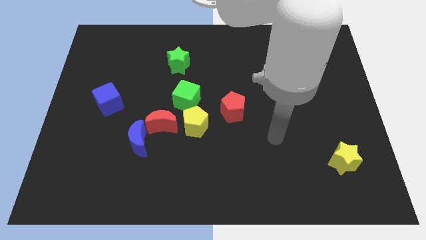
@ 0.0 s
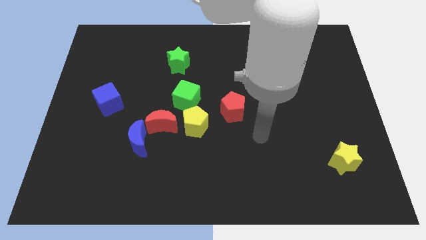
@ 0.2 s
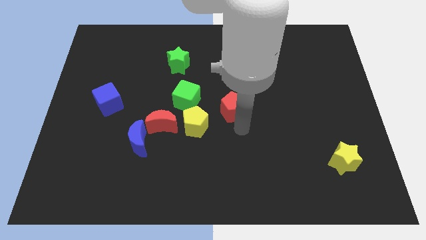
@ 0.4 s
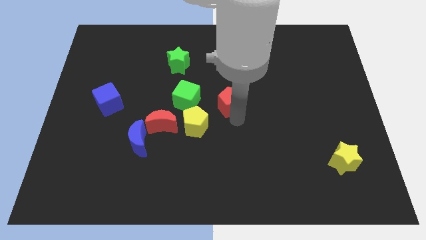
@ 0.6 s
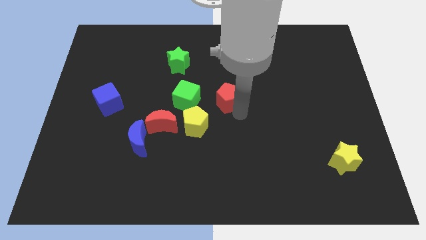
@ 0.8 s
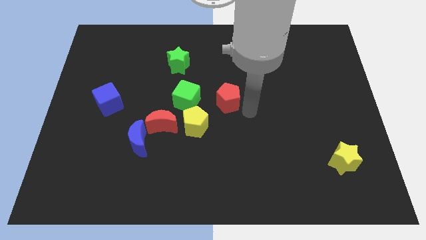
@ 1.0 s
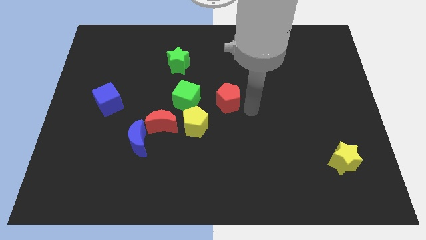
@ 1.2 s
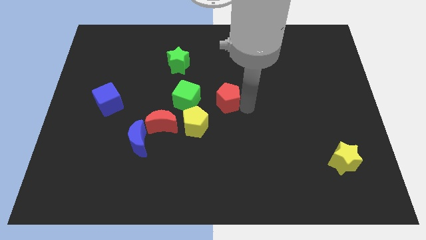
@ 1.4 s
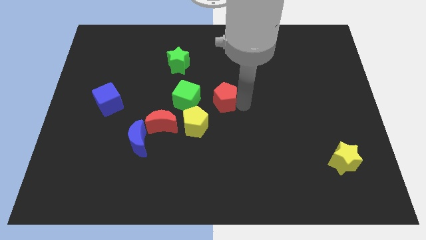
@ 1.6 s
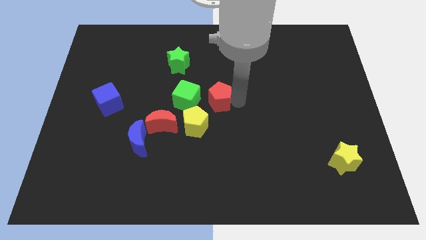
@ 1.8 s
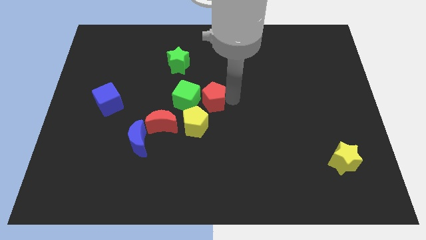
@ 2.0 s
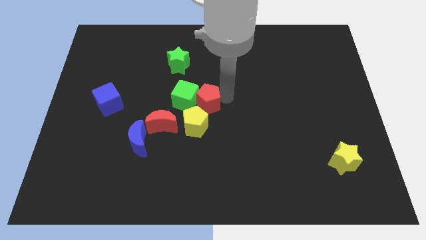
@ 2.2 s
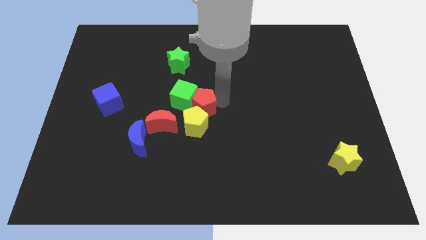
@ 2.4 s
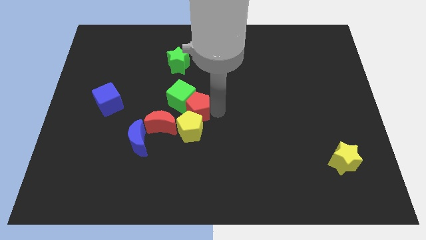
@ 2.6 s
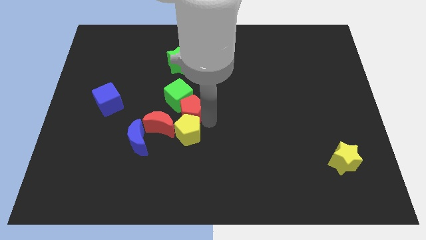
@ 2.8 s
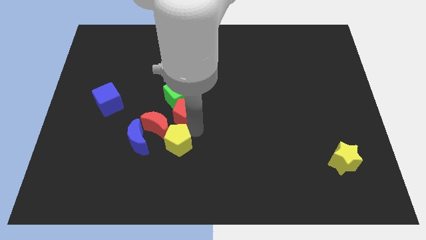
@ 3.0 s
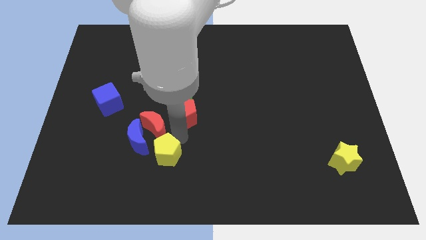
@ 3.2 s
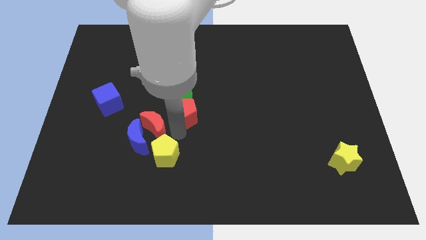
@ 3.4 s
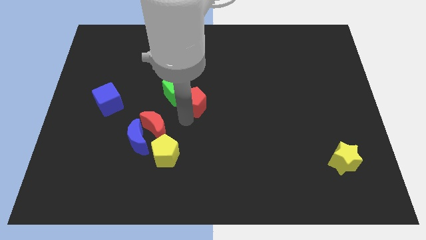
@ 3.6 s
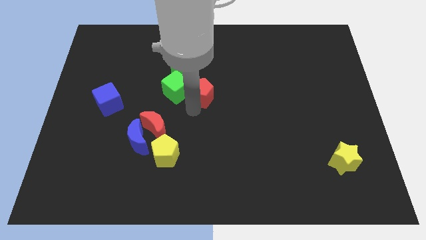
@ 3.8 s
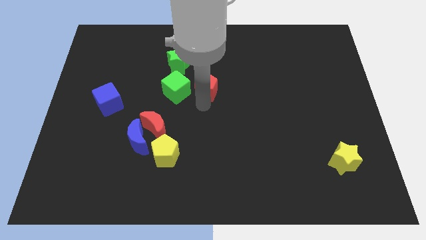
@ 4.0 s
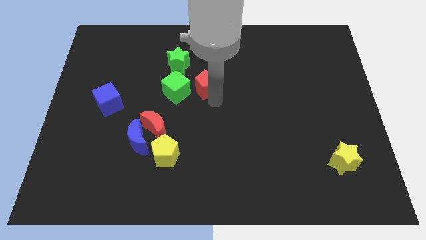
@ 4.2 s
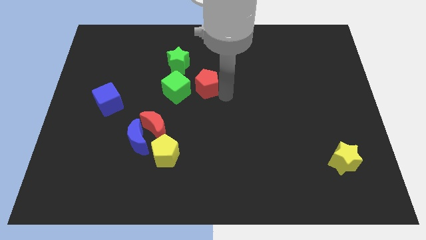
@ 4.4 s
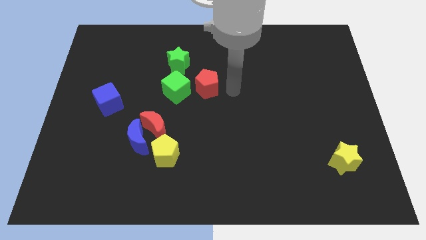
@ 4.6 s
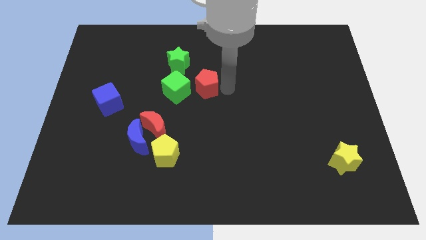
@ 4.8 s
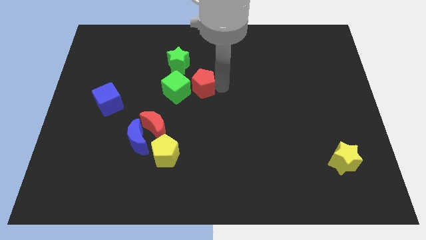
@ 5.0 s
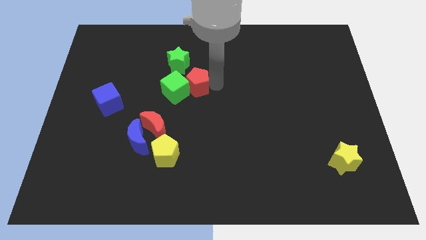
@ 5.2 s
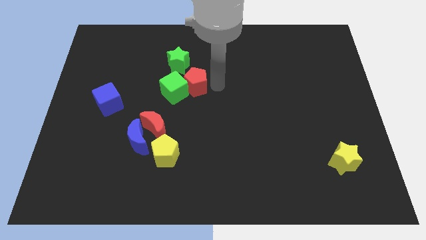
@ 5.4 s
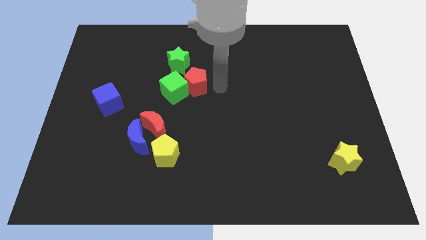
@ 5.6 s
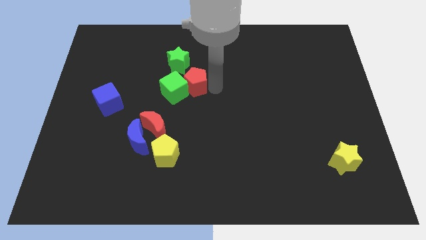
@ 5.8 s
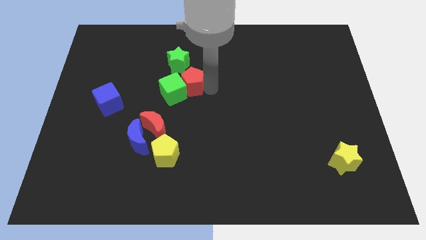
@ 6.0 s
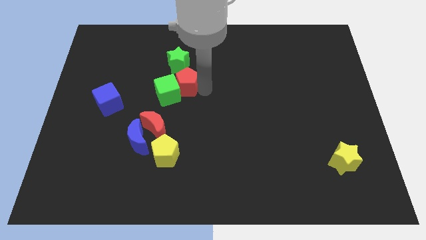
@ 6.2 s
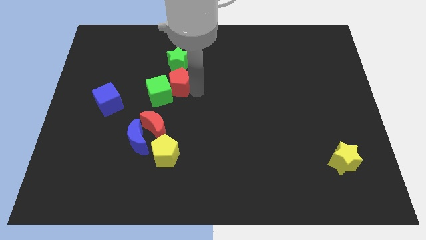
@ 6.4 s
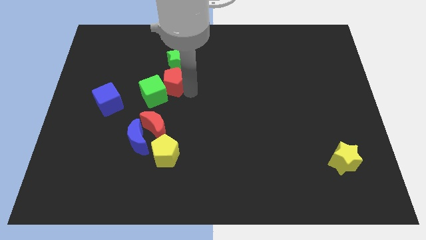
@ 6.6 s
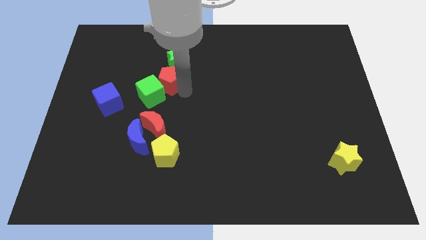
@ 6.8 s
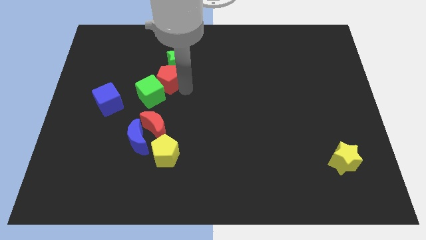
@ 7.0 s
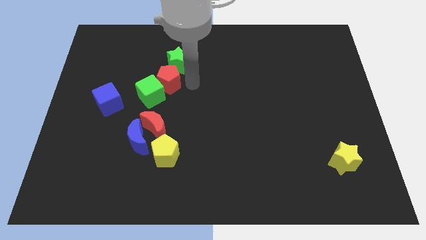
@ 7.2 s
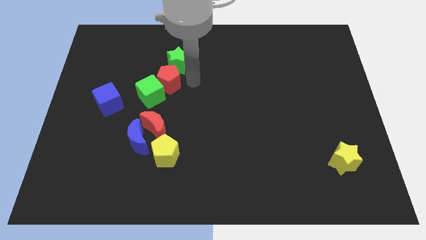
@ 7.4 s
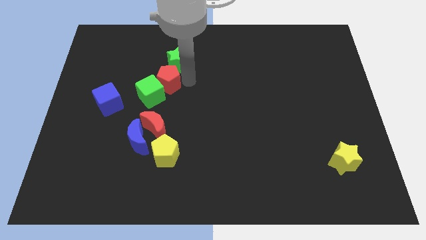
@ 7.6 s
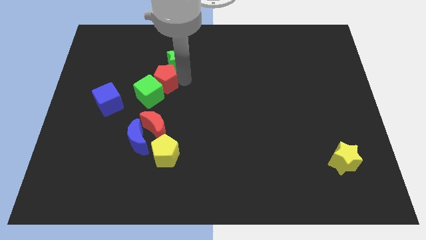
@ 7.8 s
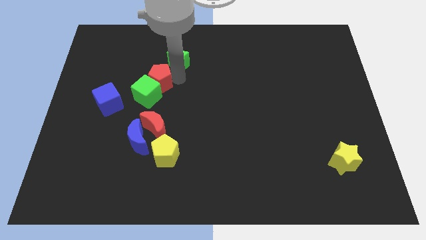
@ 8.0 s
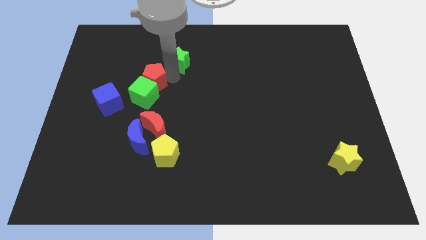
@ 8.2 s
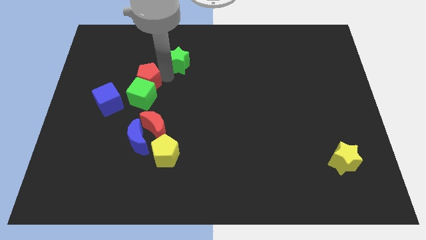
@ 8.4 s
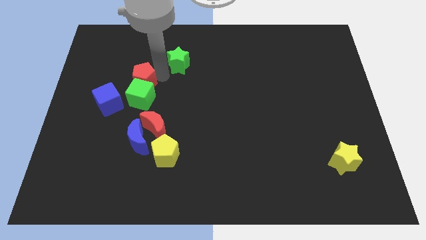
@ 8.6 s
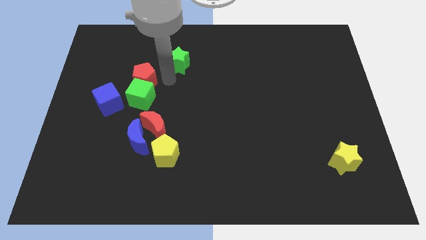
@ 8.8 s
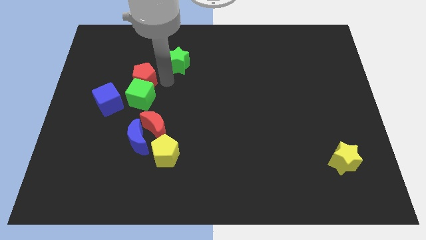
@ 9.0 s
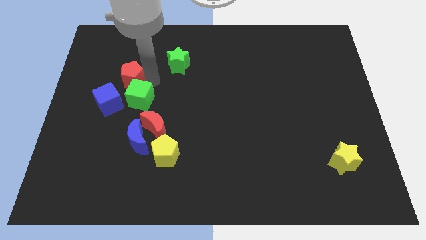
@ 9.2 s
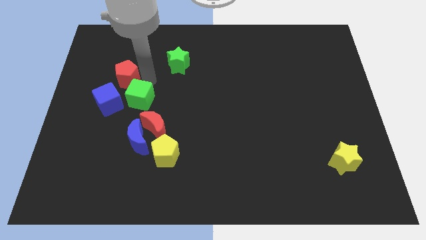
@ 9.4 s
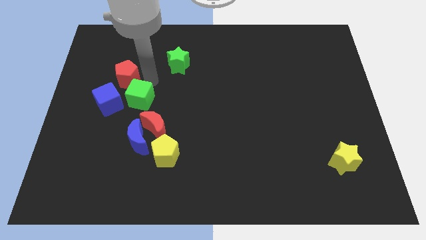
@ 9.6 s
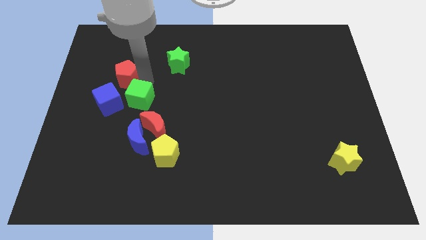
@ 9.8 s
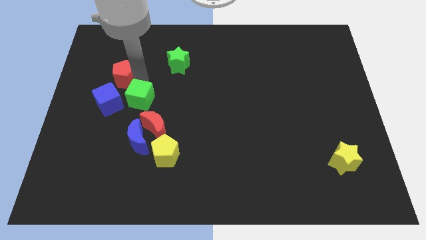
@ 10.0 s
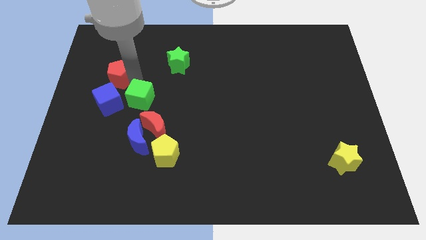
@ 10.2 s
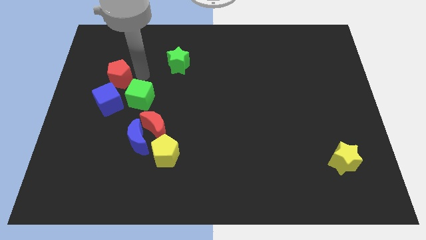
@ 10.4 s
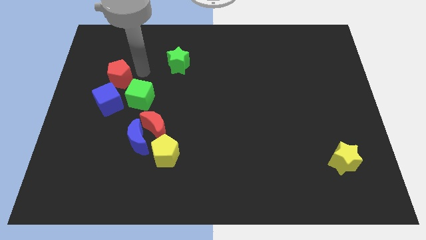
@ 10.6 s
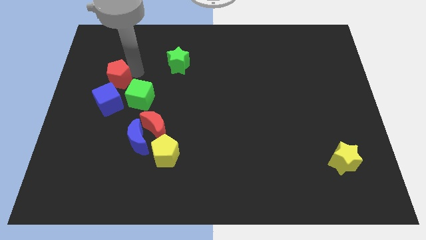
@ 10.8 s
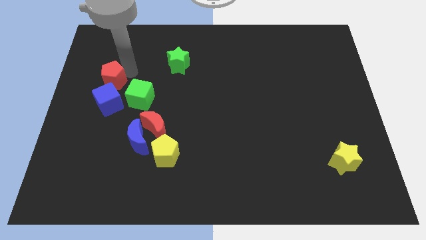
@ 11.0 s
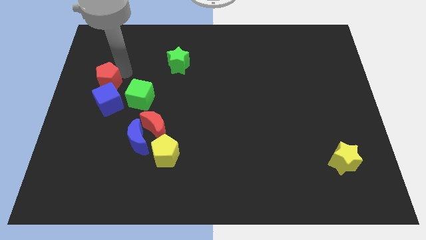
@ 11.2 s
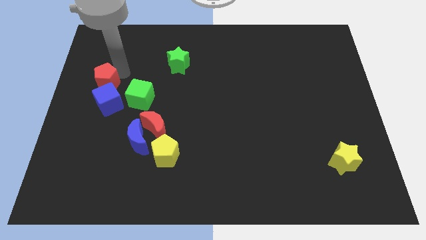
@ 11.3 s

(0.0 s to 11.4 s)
push the red pentagon to the left side of the board
